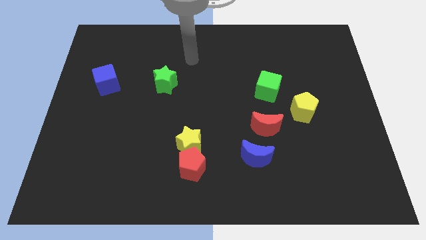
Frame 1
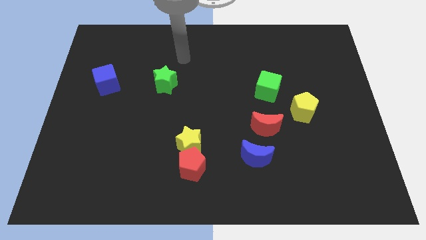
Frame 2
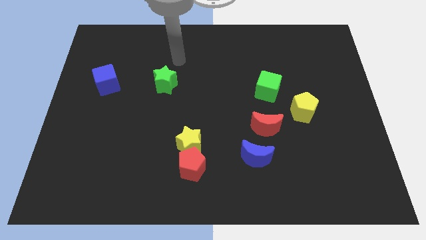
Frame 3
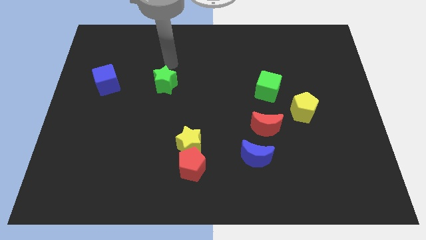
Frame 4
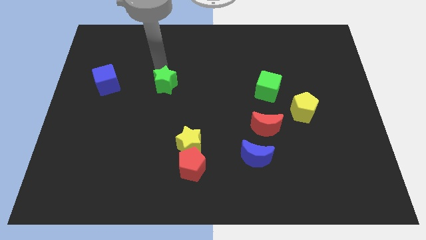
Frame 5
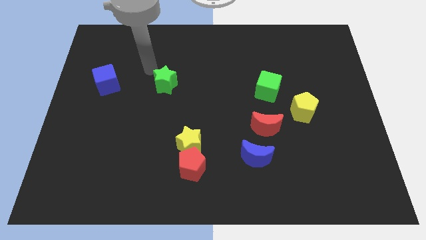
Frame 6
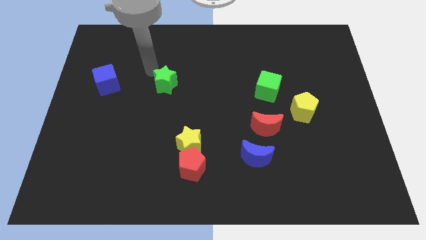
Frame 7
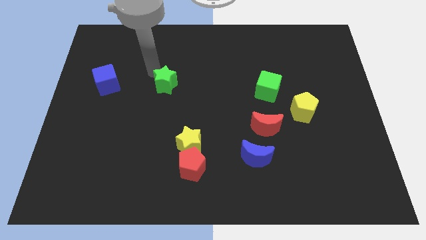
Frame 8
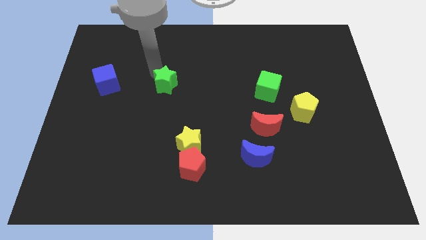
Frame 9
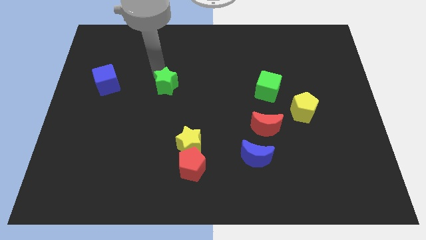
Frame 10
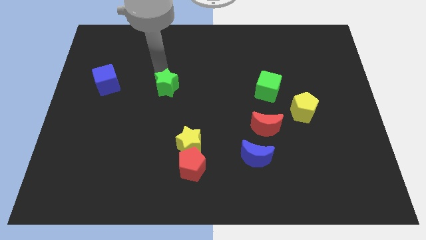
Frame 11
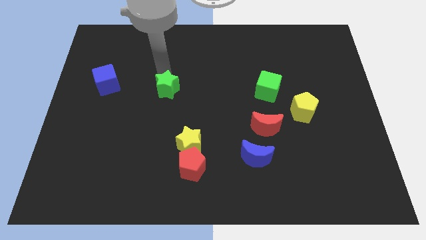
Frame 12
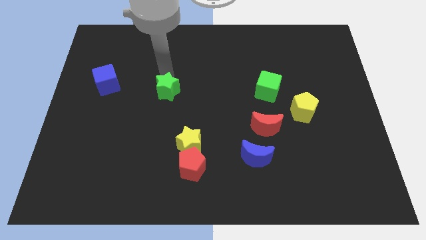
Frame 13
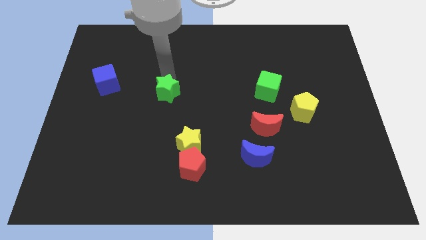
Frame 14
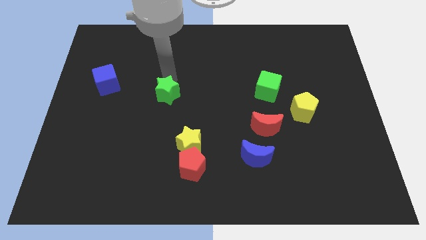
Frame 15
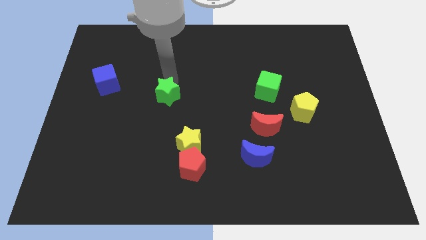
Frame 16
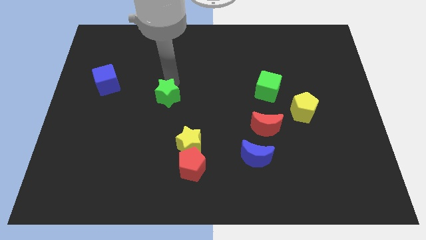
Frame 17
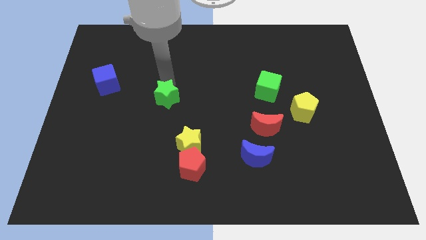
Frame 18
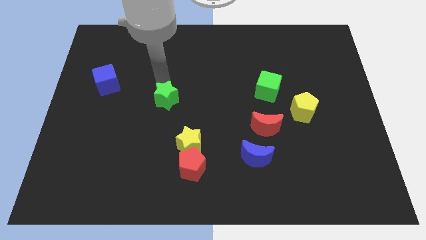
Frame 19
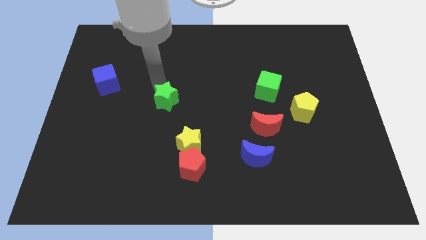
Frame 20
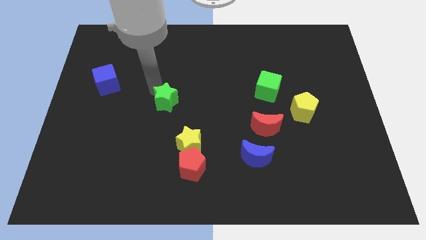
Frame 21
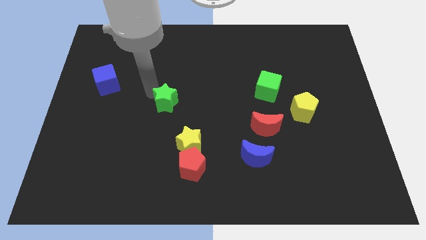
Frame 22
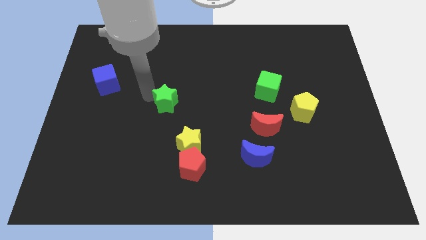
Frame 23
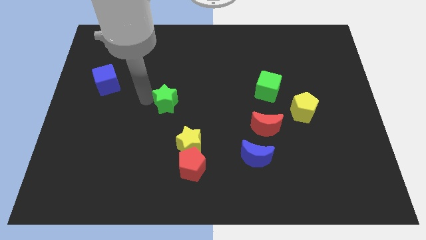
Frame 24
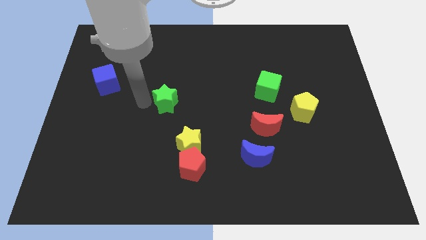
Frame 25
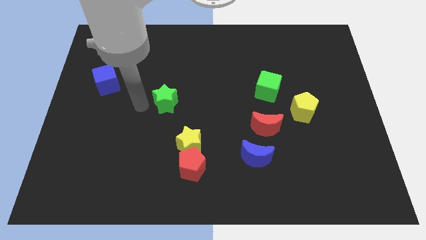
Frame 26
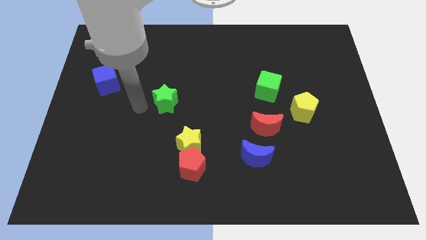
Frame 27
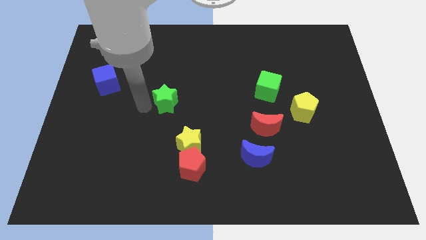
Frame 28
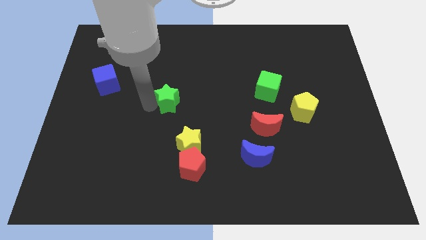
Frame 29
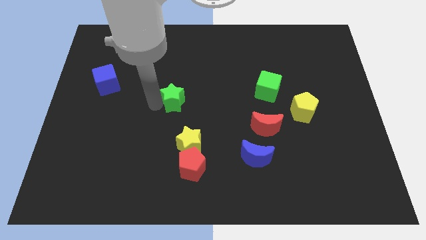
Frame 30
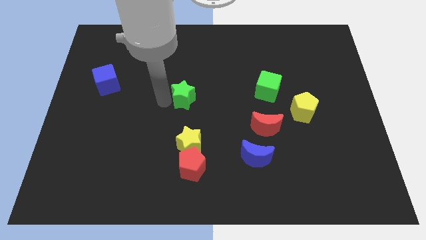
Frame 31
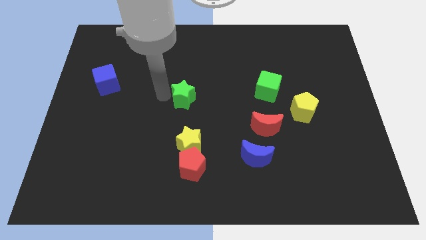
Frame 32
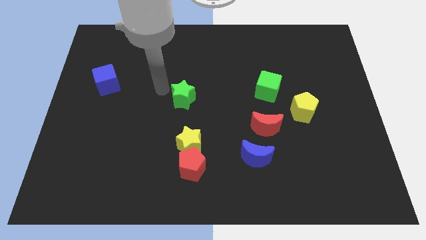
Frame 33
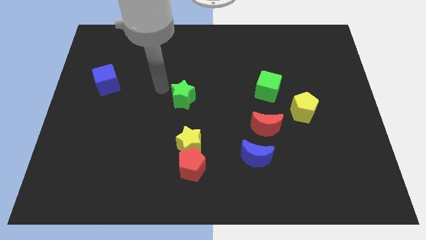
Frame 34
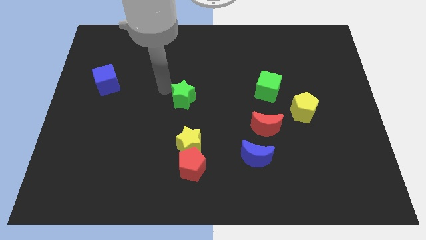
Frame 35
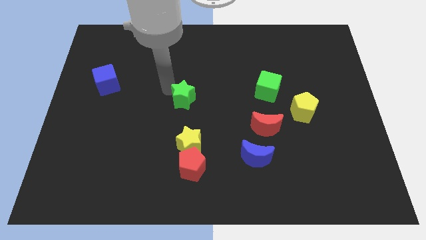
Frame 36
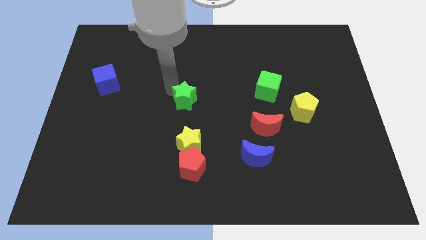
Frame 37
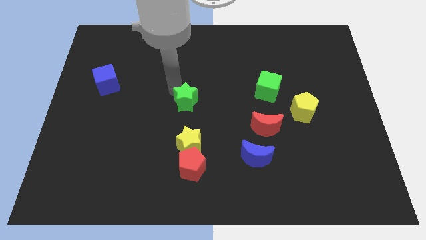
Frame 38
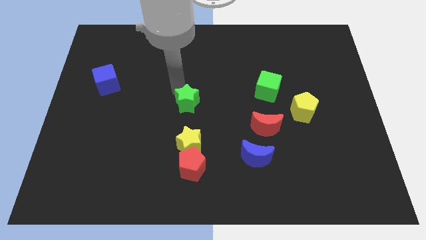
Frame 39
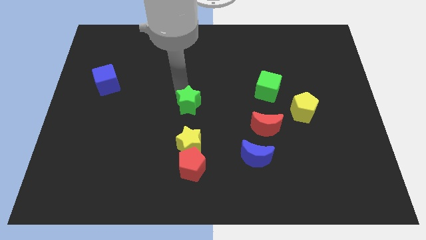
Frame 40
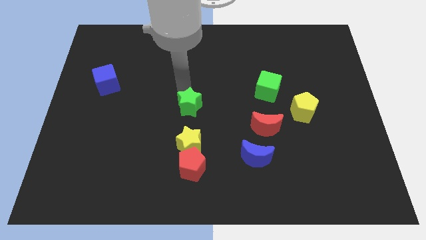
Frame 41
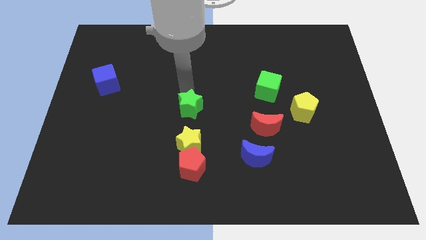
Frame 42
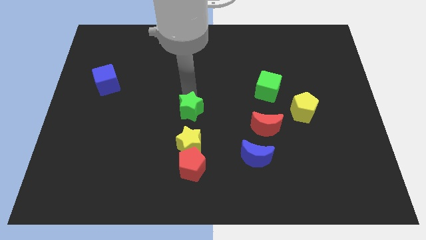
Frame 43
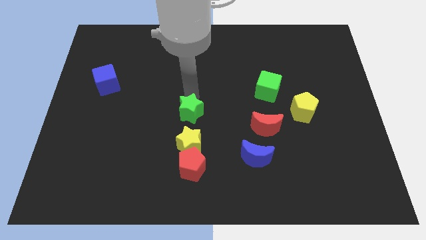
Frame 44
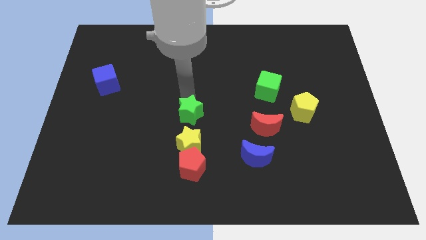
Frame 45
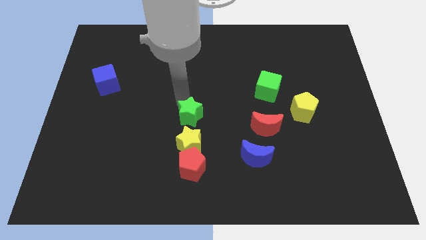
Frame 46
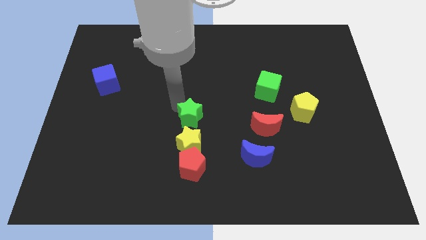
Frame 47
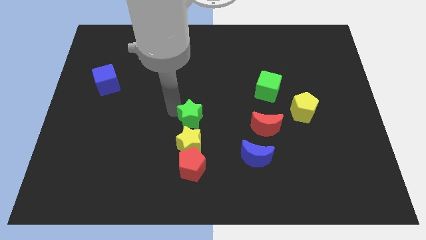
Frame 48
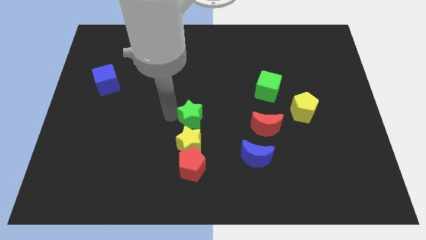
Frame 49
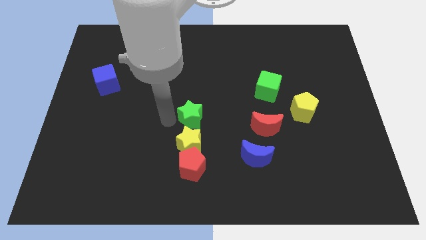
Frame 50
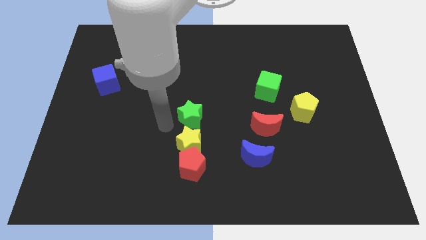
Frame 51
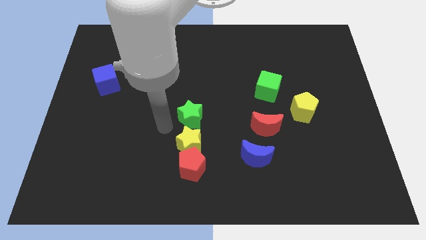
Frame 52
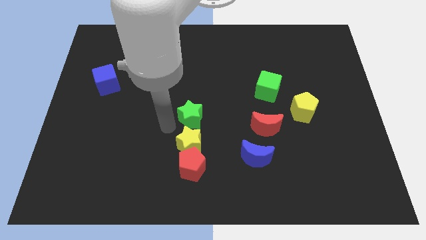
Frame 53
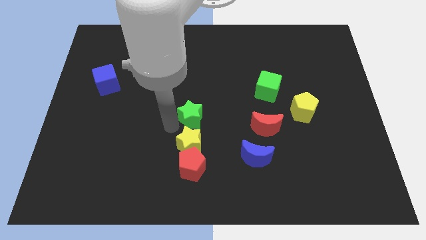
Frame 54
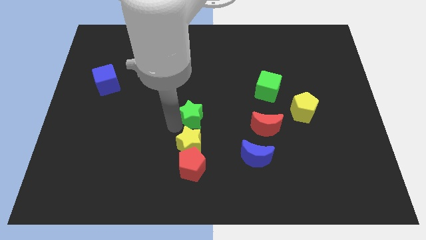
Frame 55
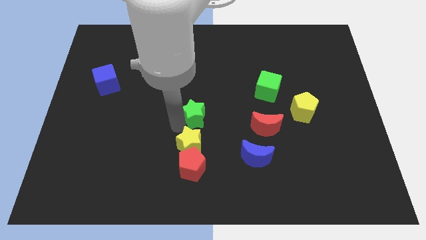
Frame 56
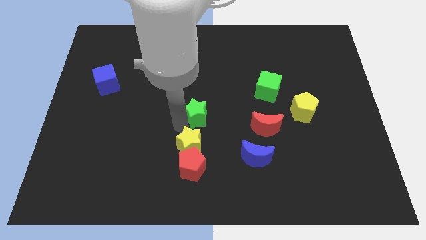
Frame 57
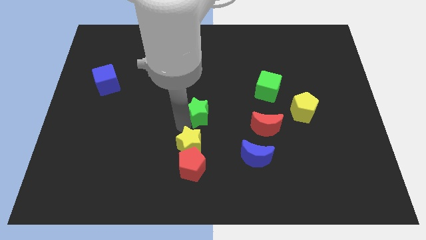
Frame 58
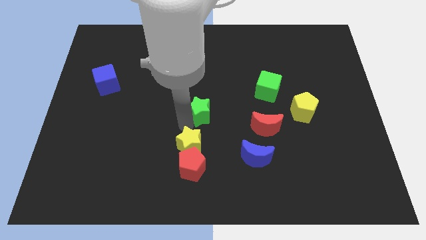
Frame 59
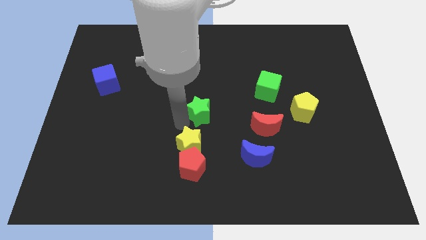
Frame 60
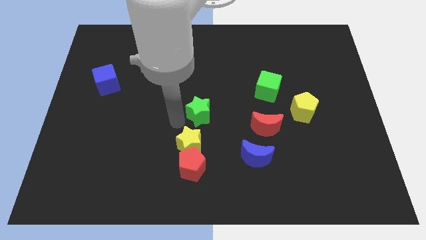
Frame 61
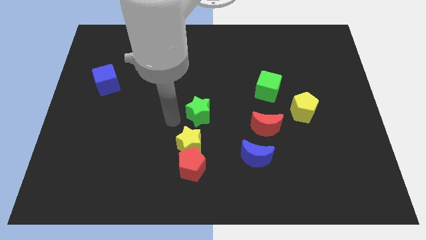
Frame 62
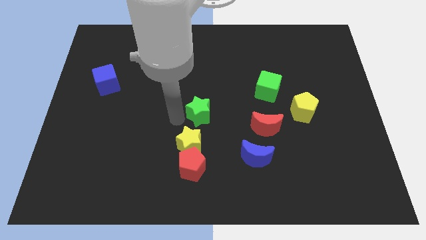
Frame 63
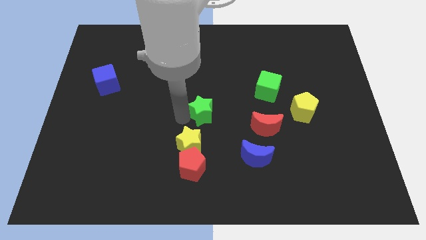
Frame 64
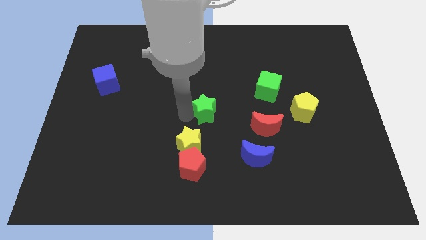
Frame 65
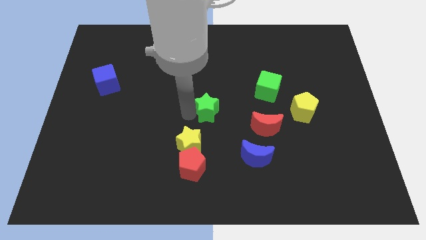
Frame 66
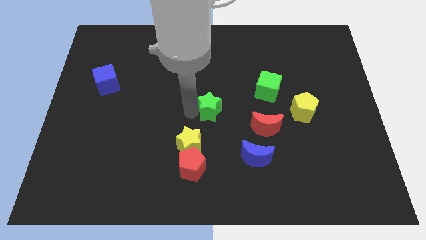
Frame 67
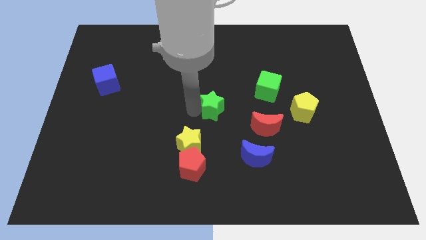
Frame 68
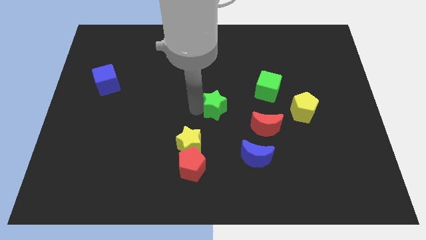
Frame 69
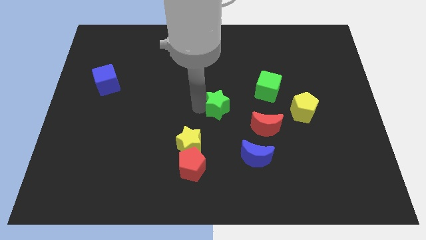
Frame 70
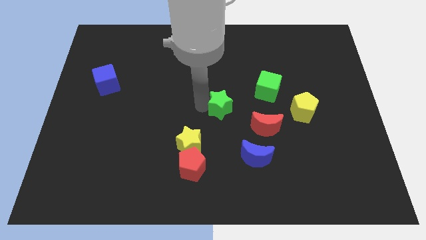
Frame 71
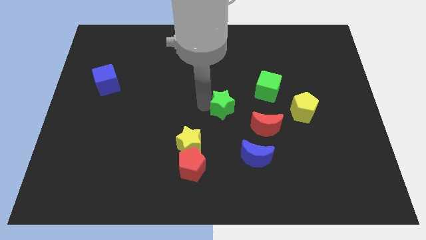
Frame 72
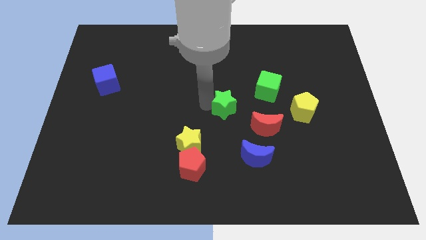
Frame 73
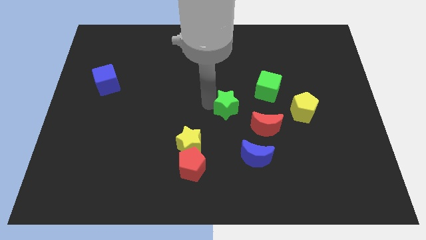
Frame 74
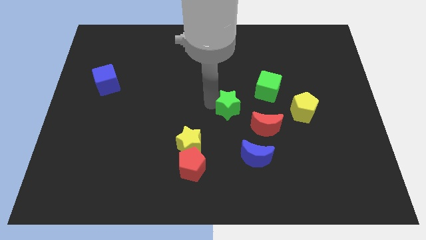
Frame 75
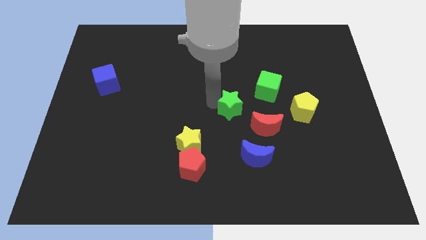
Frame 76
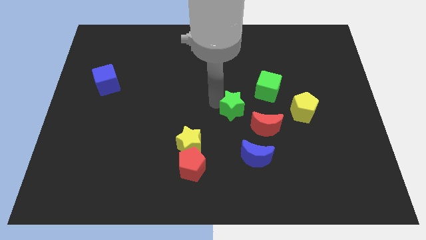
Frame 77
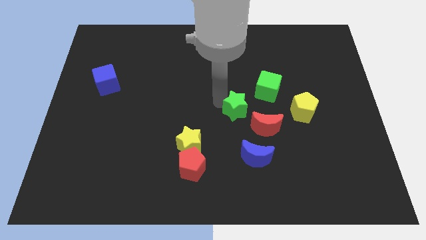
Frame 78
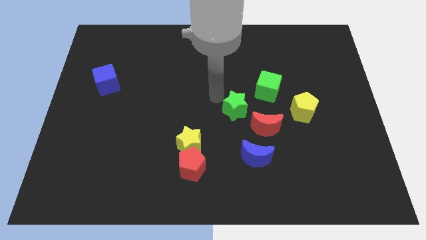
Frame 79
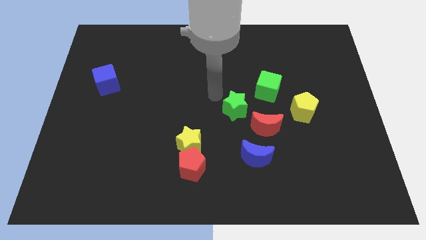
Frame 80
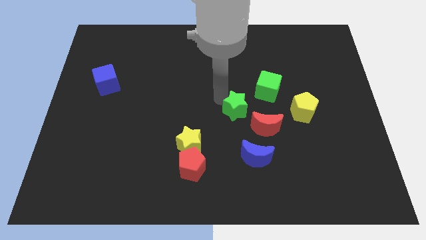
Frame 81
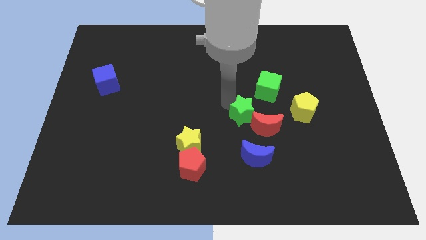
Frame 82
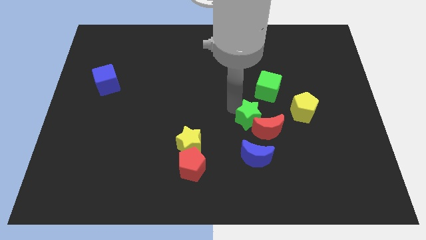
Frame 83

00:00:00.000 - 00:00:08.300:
push the green star towards the red moon
